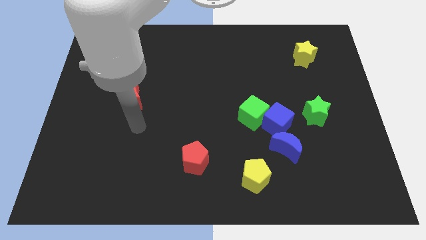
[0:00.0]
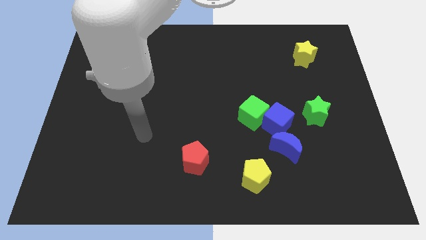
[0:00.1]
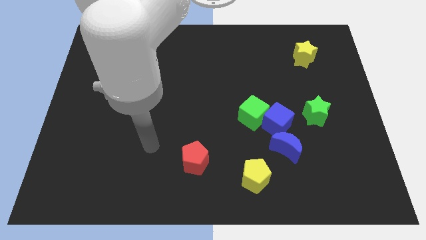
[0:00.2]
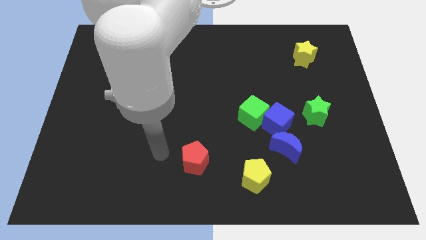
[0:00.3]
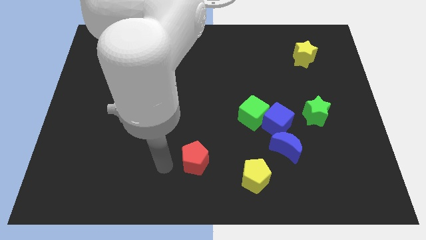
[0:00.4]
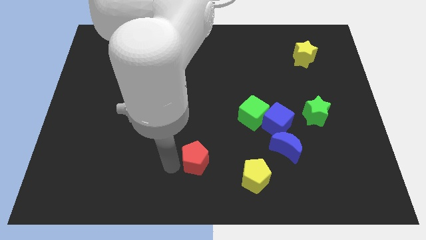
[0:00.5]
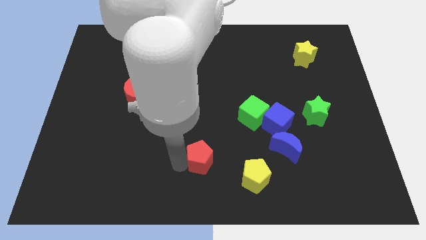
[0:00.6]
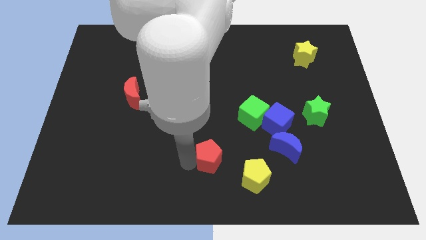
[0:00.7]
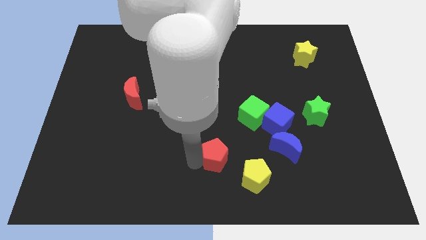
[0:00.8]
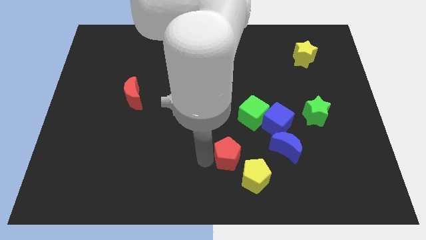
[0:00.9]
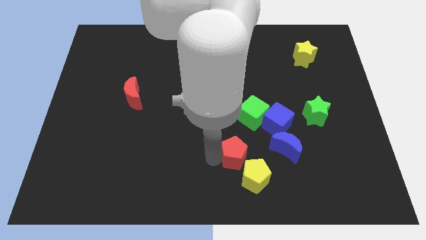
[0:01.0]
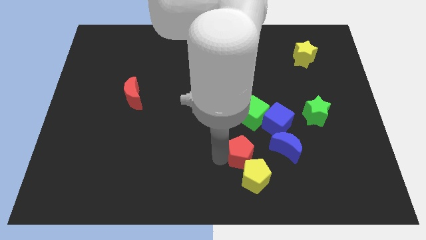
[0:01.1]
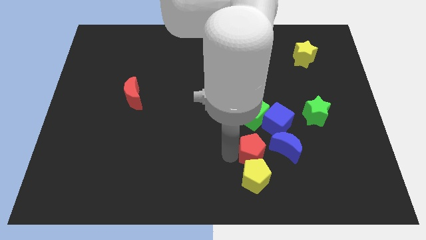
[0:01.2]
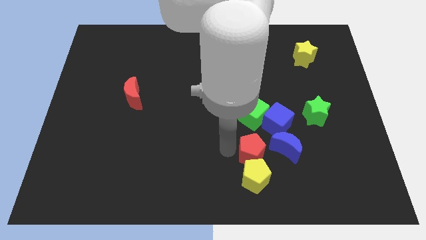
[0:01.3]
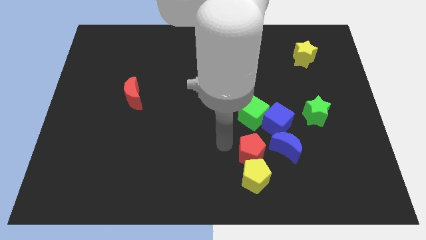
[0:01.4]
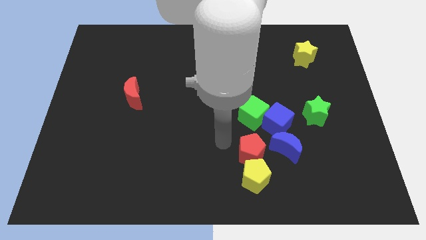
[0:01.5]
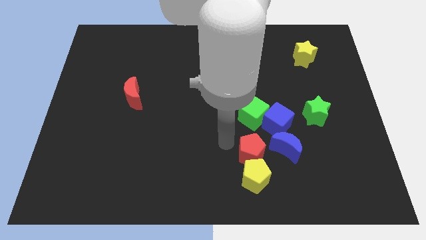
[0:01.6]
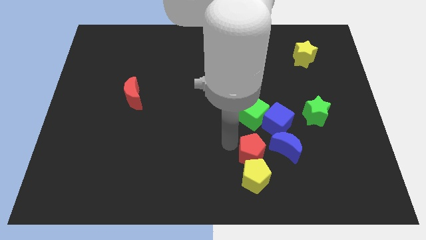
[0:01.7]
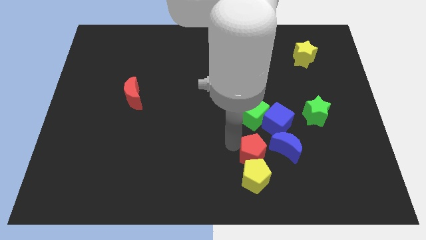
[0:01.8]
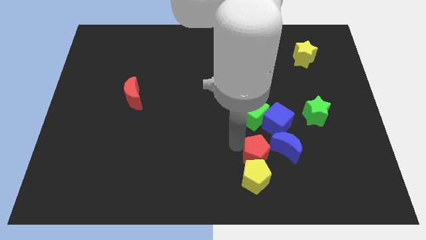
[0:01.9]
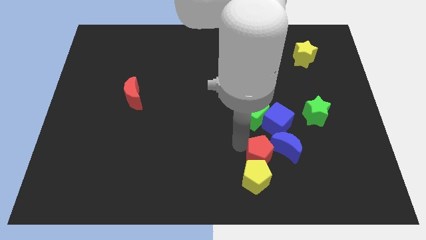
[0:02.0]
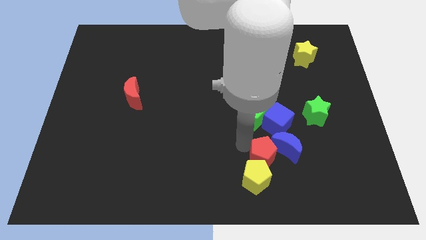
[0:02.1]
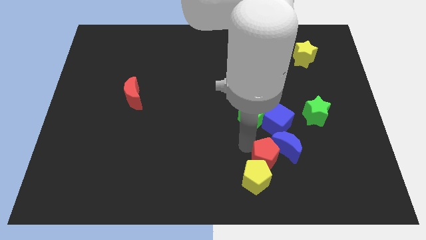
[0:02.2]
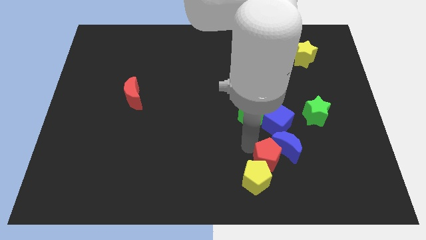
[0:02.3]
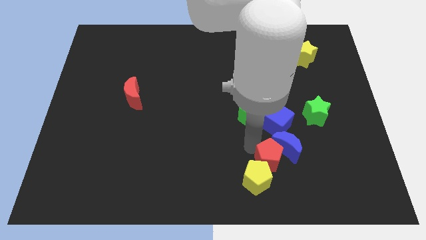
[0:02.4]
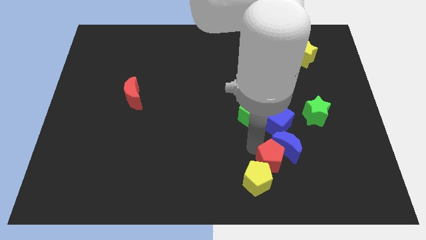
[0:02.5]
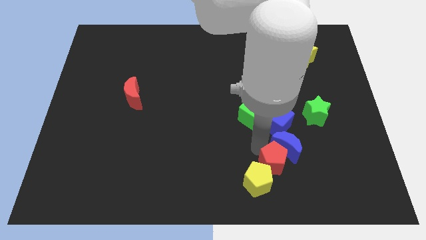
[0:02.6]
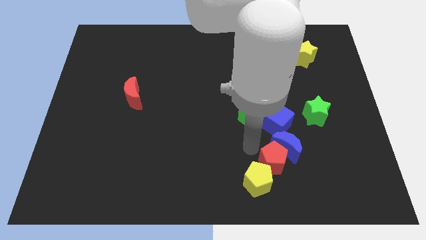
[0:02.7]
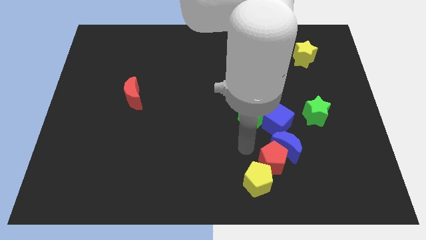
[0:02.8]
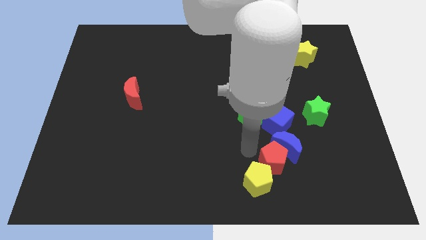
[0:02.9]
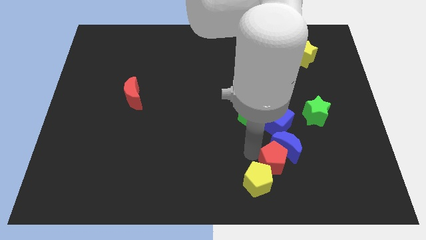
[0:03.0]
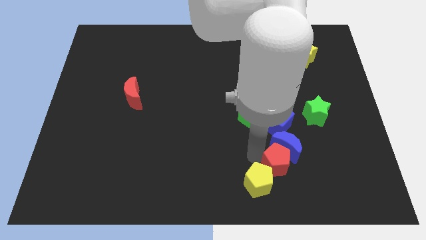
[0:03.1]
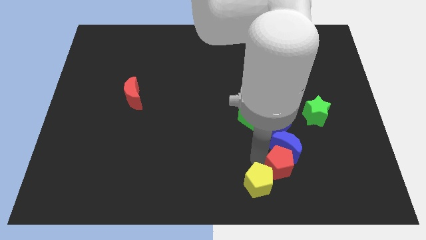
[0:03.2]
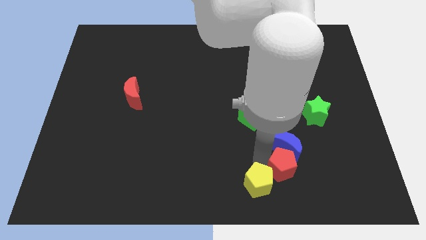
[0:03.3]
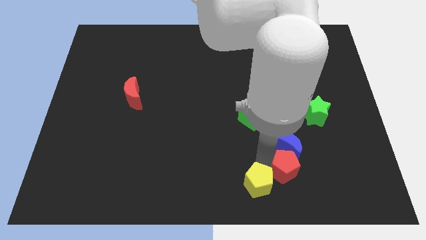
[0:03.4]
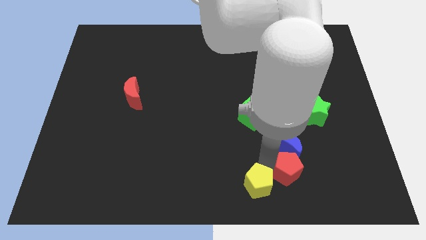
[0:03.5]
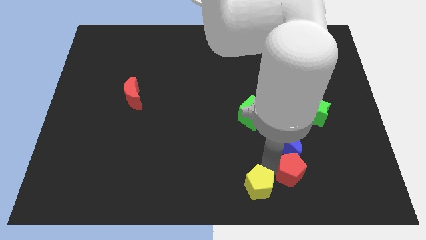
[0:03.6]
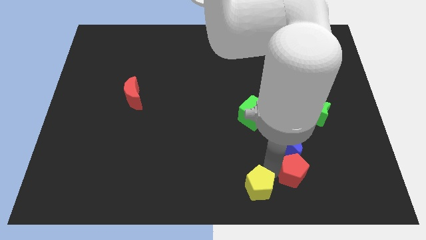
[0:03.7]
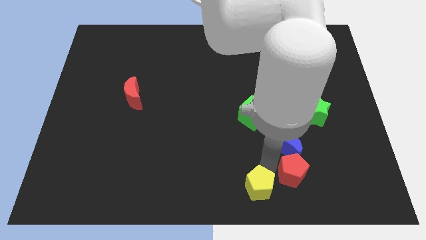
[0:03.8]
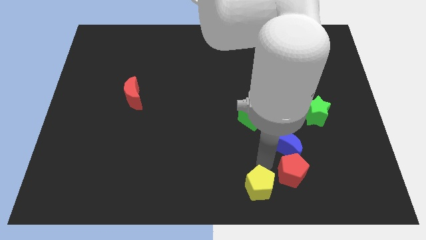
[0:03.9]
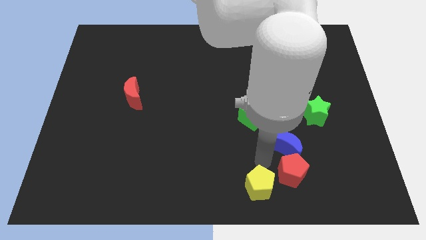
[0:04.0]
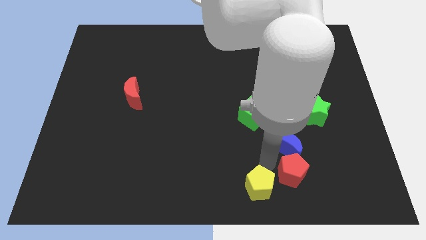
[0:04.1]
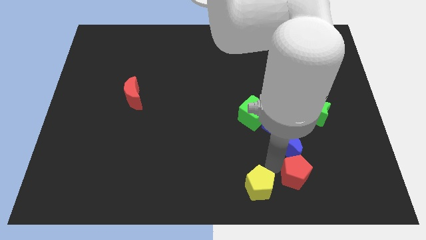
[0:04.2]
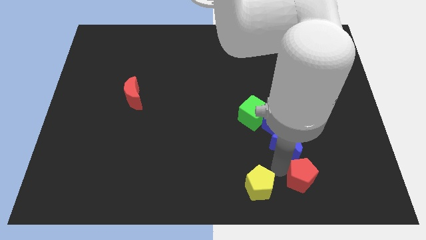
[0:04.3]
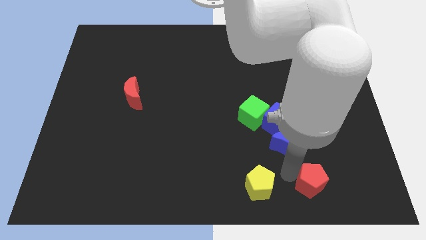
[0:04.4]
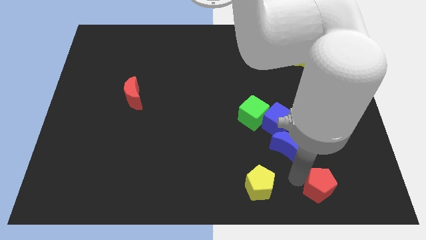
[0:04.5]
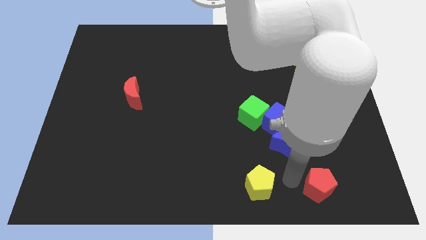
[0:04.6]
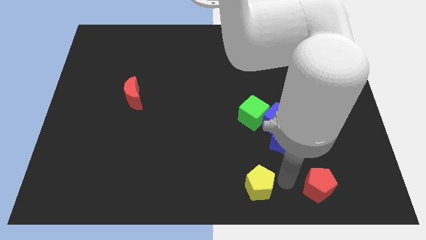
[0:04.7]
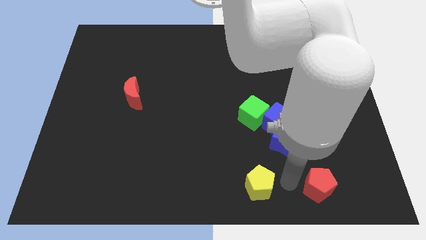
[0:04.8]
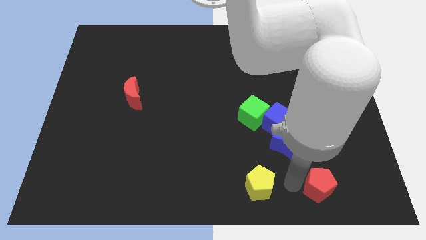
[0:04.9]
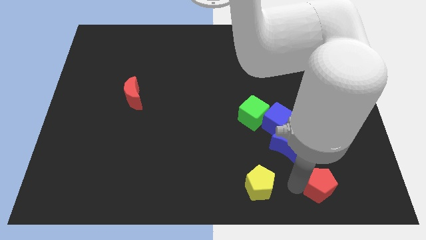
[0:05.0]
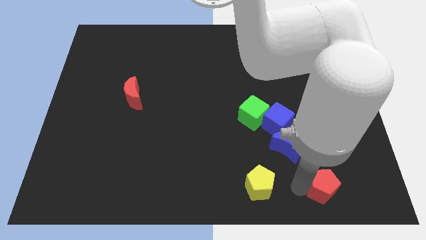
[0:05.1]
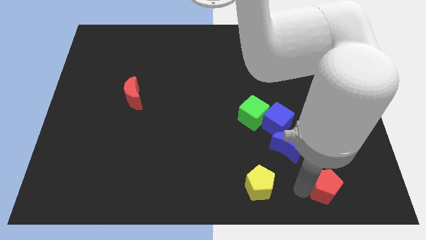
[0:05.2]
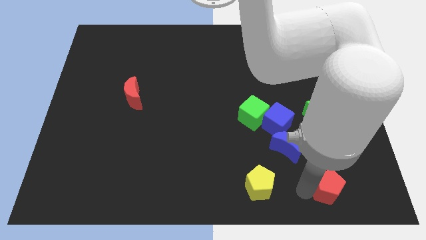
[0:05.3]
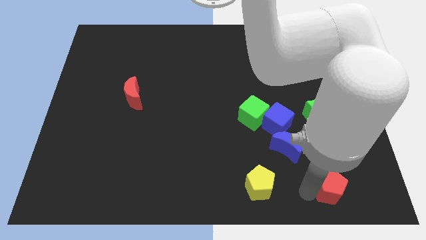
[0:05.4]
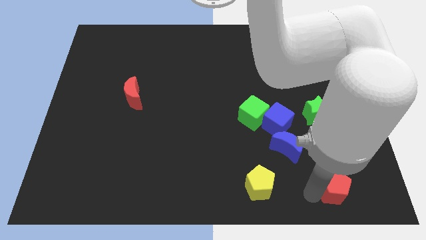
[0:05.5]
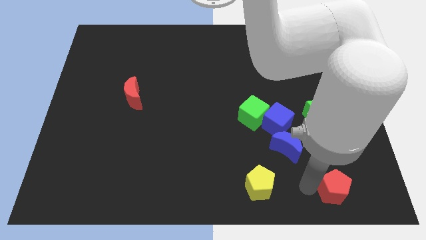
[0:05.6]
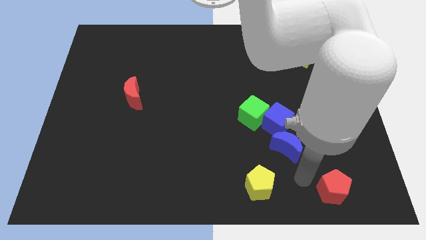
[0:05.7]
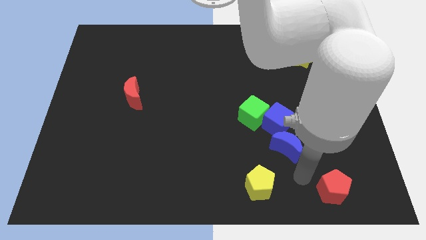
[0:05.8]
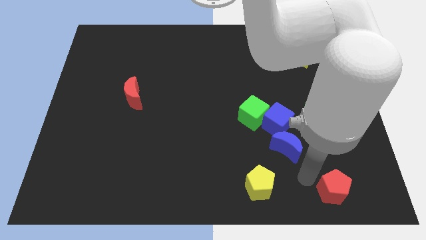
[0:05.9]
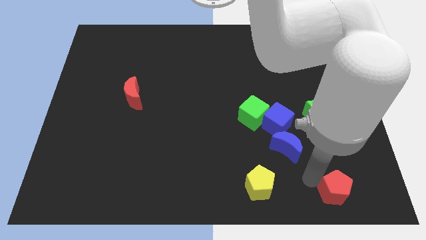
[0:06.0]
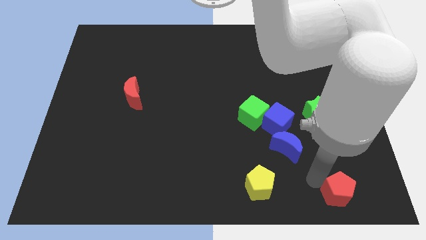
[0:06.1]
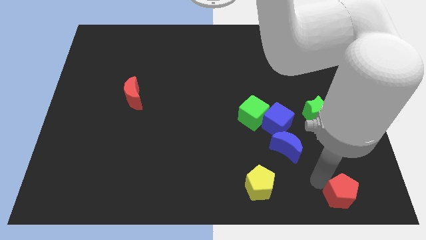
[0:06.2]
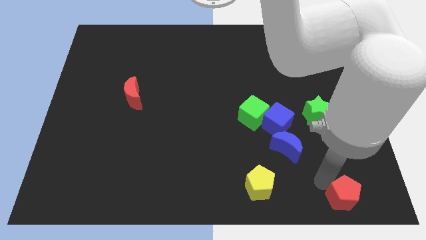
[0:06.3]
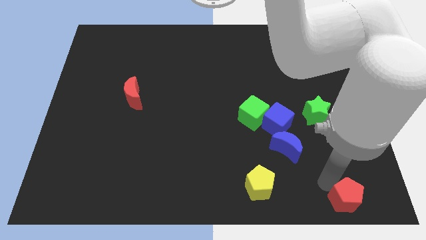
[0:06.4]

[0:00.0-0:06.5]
slide the red pentagon to the bottom right of the board
